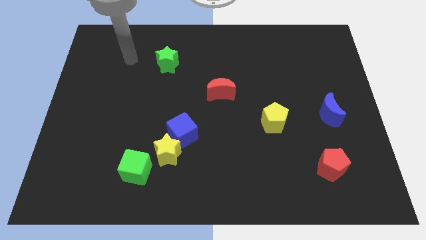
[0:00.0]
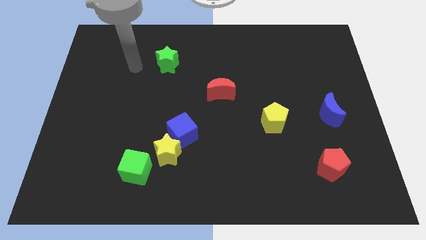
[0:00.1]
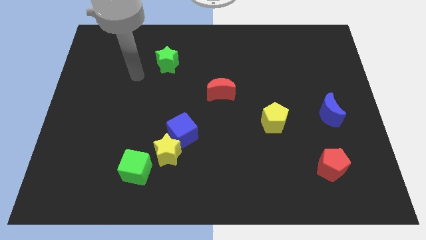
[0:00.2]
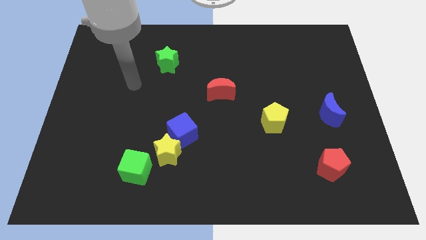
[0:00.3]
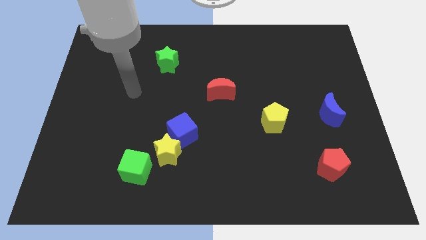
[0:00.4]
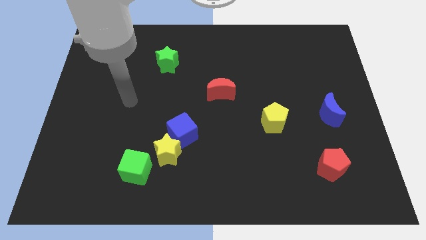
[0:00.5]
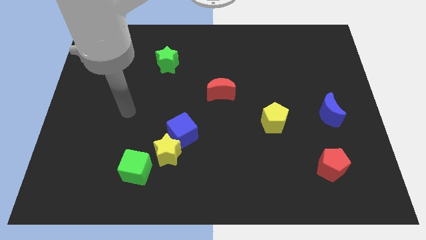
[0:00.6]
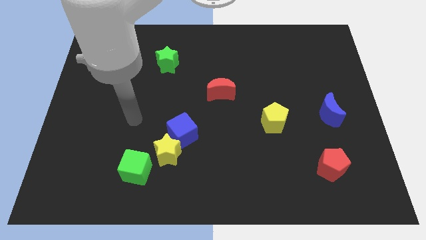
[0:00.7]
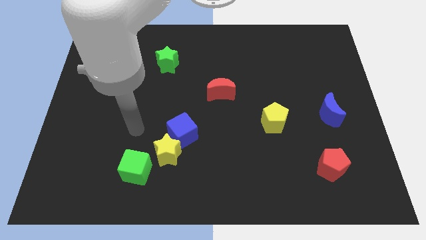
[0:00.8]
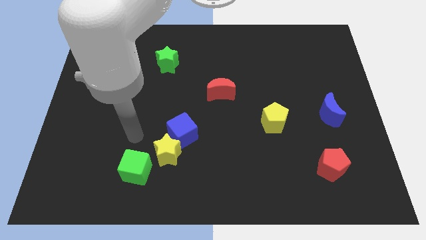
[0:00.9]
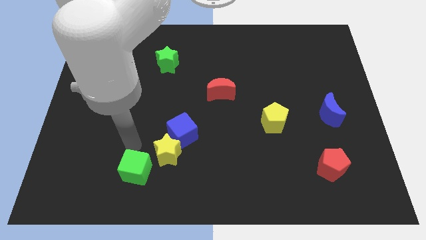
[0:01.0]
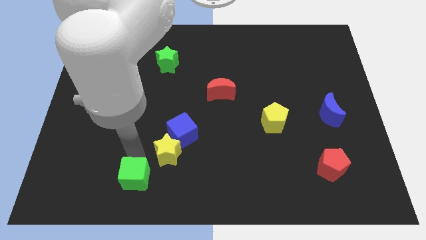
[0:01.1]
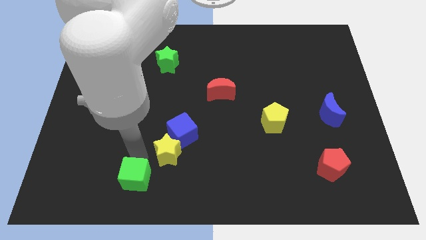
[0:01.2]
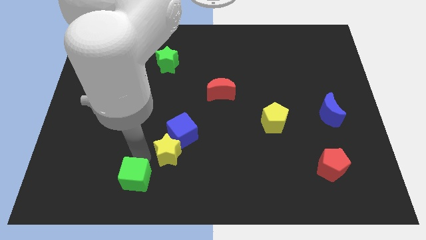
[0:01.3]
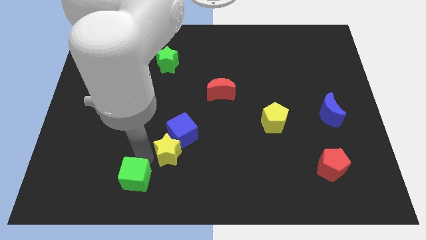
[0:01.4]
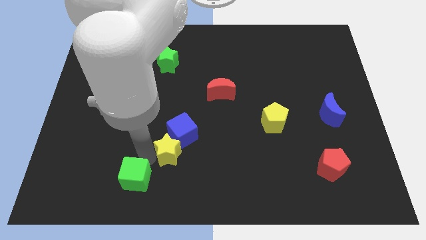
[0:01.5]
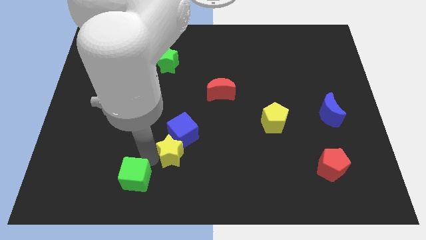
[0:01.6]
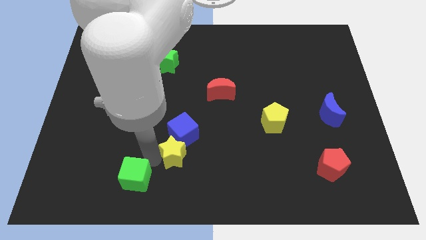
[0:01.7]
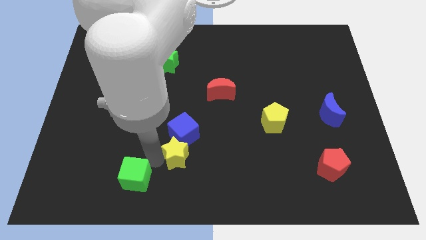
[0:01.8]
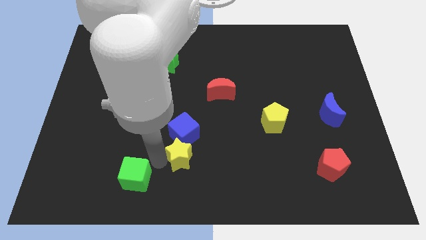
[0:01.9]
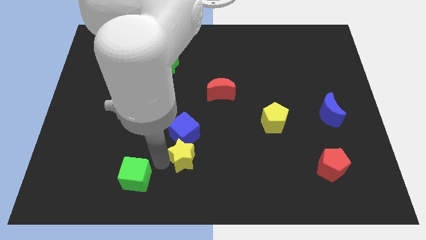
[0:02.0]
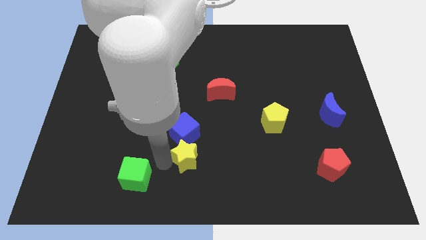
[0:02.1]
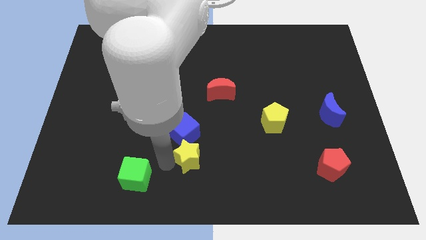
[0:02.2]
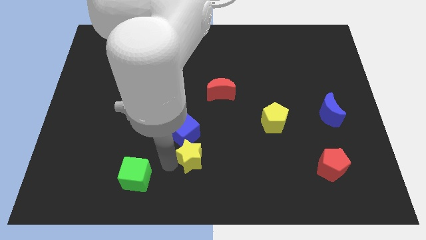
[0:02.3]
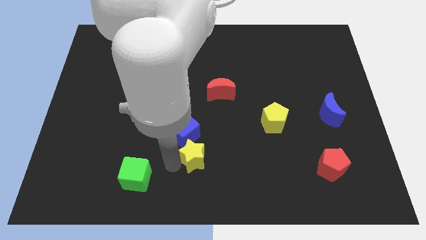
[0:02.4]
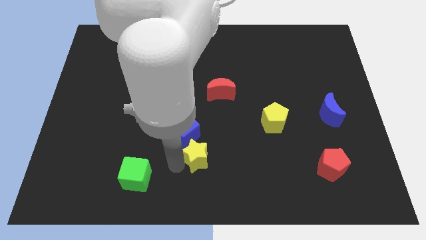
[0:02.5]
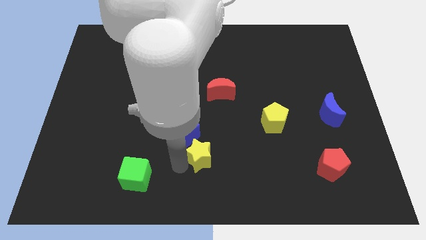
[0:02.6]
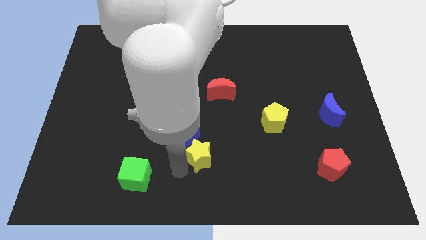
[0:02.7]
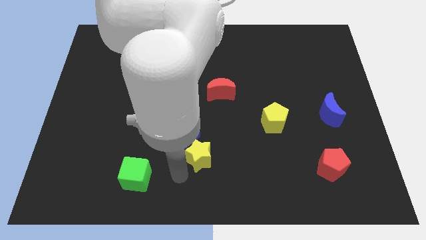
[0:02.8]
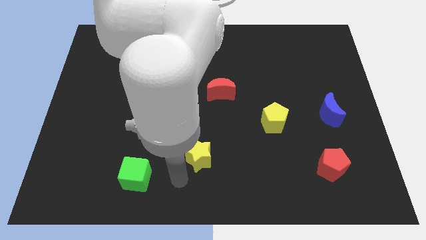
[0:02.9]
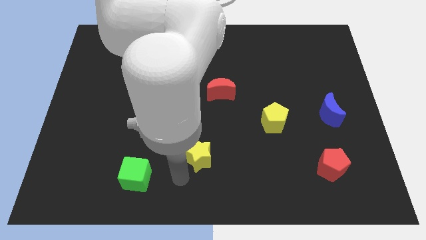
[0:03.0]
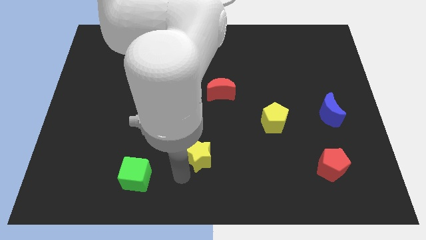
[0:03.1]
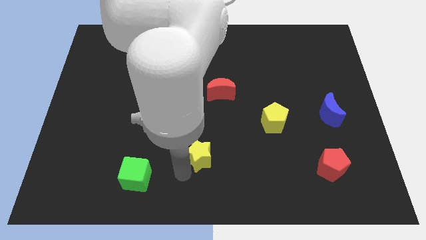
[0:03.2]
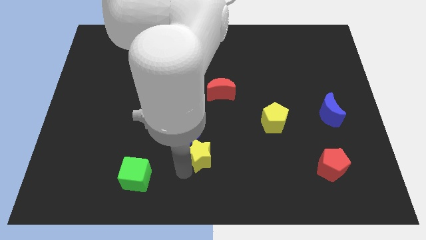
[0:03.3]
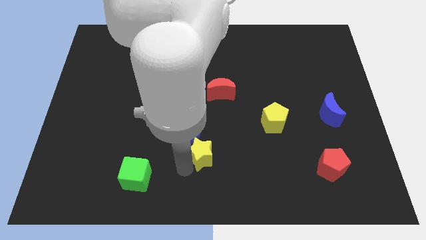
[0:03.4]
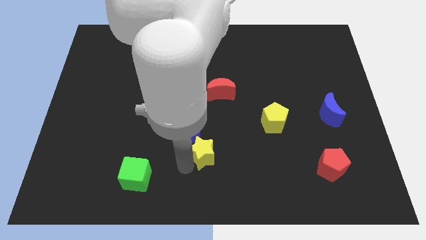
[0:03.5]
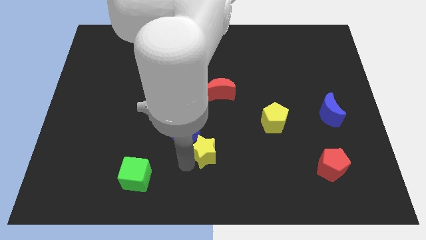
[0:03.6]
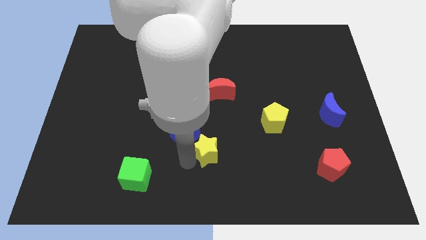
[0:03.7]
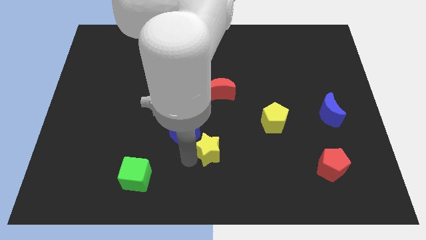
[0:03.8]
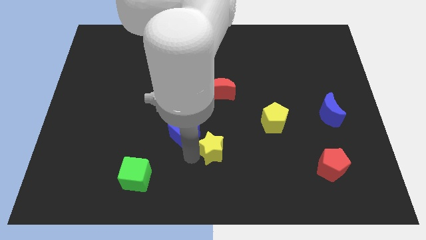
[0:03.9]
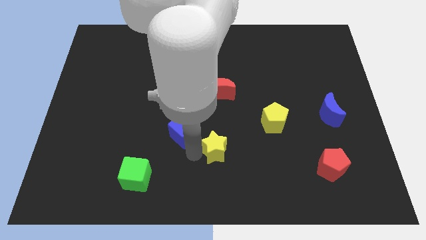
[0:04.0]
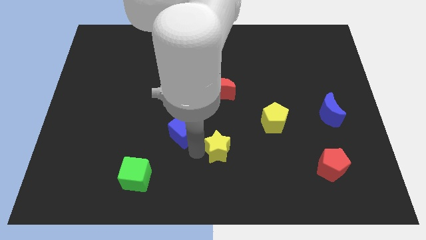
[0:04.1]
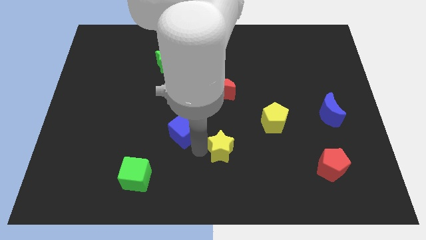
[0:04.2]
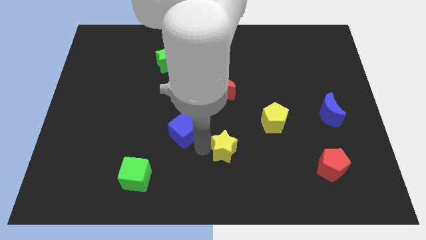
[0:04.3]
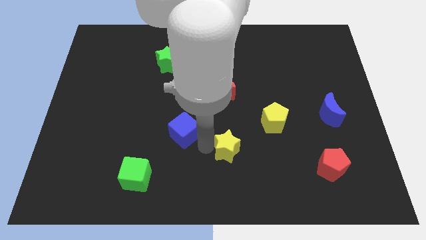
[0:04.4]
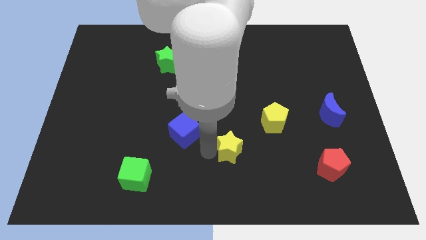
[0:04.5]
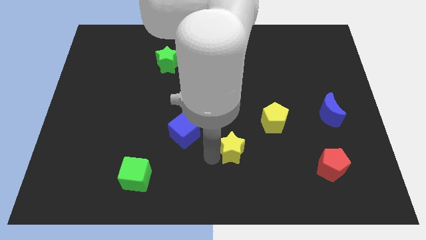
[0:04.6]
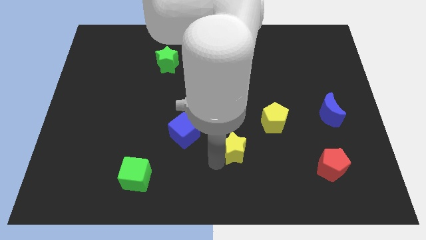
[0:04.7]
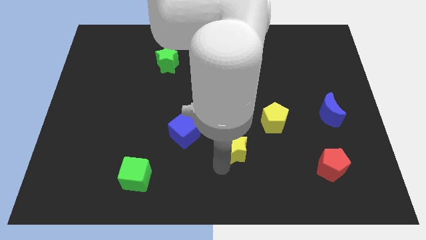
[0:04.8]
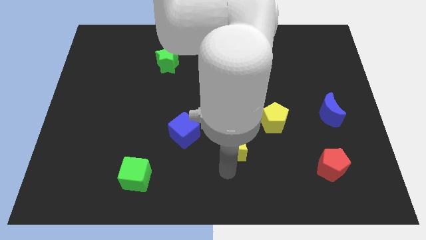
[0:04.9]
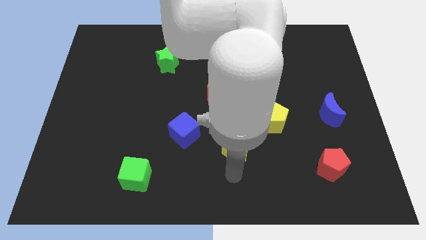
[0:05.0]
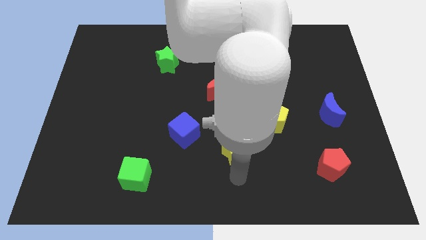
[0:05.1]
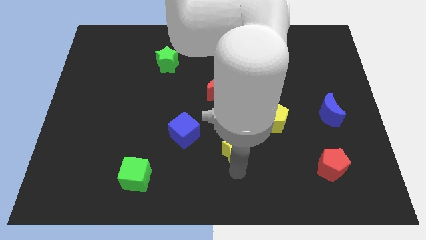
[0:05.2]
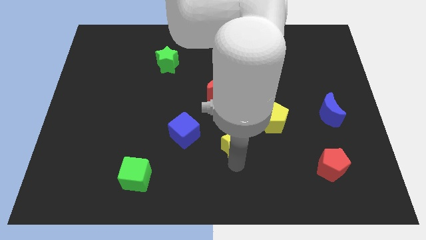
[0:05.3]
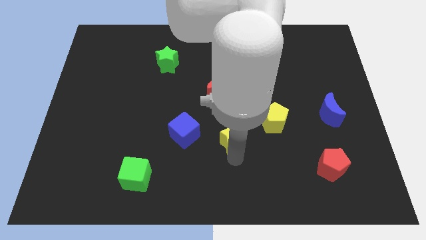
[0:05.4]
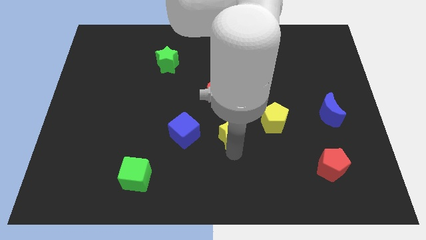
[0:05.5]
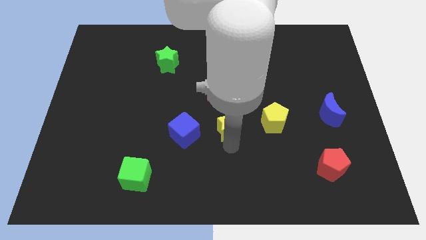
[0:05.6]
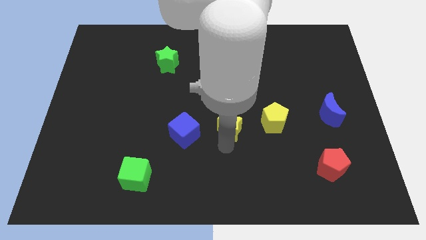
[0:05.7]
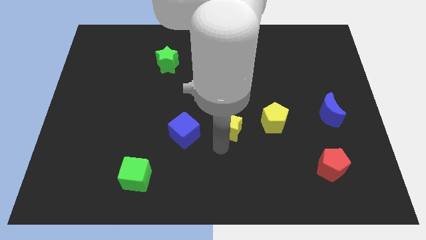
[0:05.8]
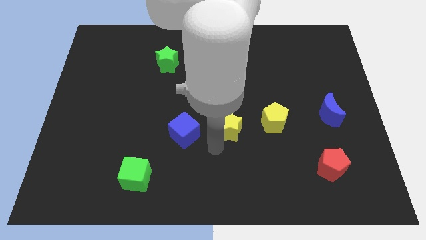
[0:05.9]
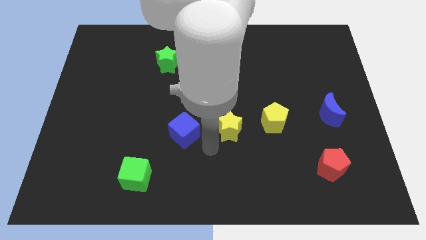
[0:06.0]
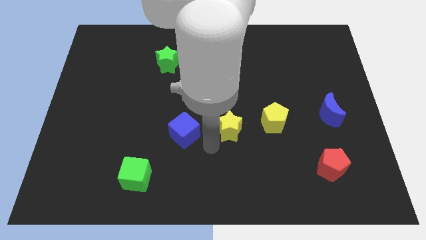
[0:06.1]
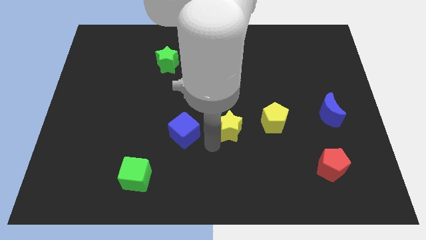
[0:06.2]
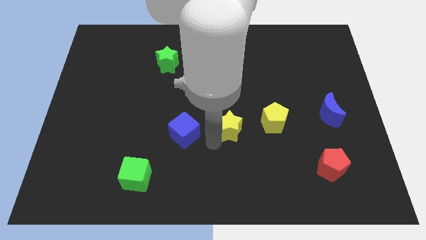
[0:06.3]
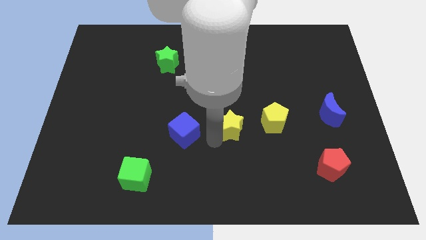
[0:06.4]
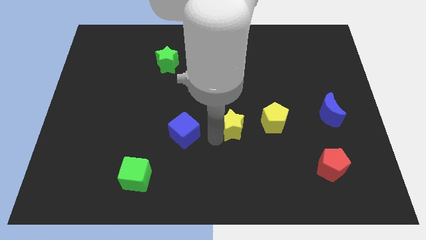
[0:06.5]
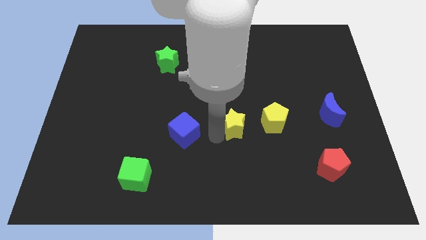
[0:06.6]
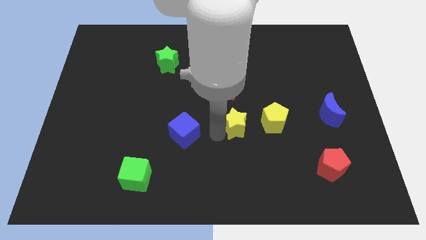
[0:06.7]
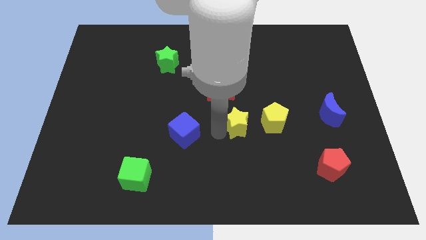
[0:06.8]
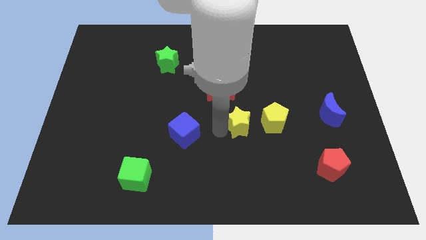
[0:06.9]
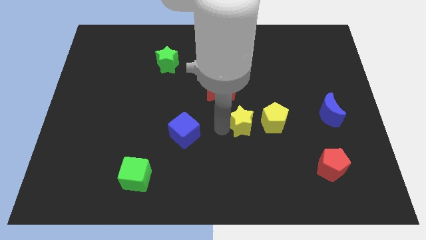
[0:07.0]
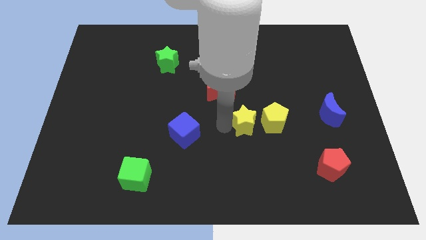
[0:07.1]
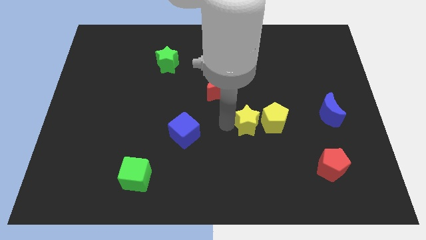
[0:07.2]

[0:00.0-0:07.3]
move the yellow star to the top left side of the yellow pentagon
